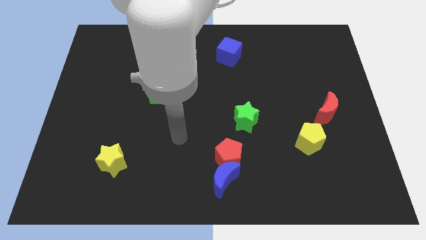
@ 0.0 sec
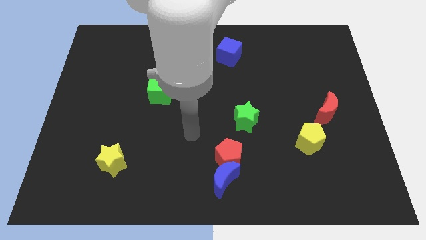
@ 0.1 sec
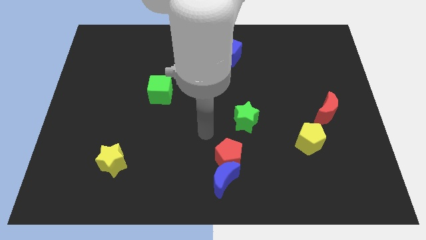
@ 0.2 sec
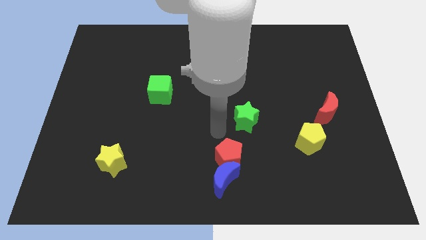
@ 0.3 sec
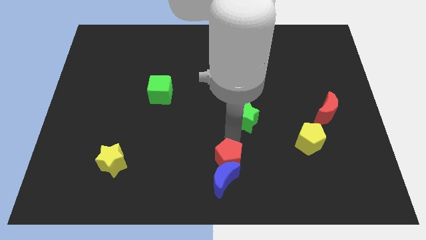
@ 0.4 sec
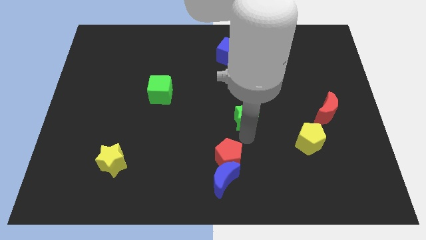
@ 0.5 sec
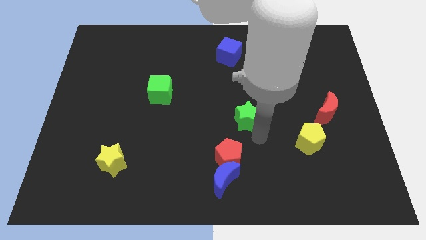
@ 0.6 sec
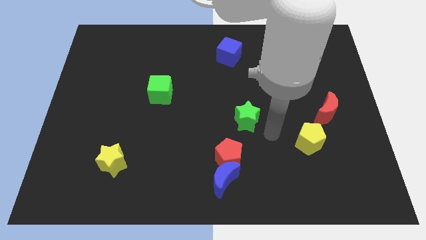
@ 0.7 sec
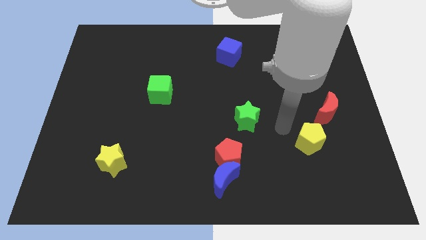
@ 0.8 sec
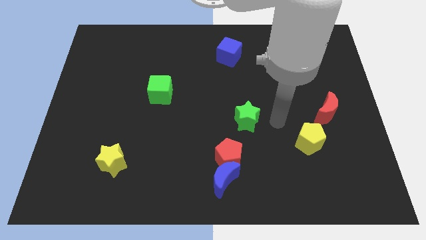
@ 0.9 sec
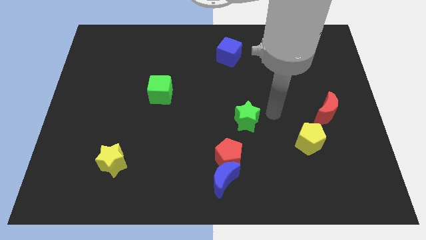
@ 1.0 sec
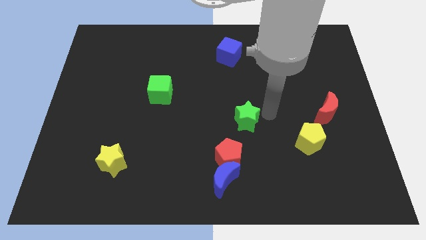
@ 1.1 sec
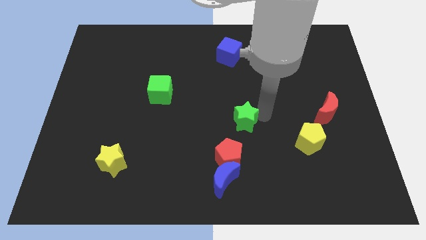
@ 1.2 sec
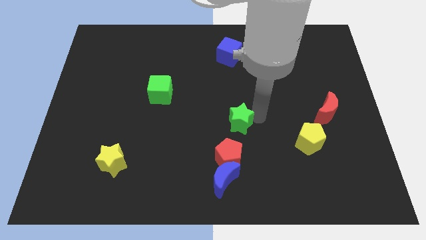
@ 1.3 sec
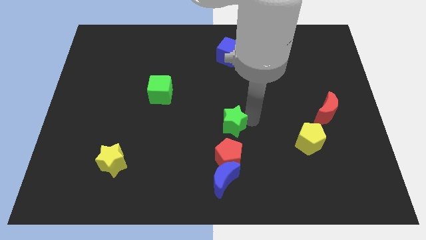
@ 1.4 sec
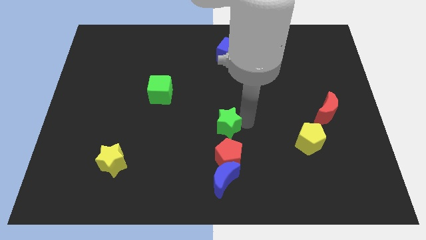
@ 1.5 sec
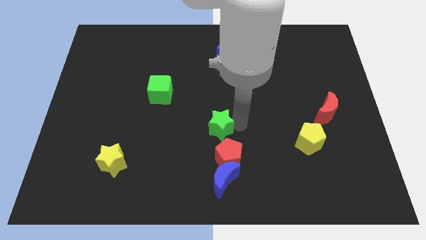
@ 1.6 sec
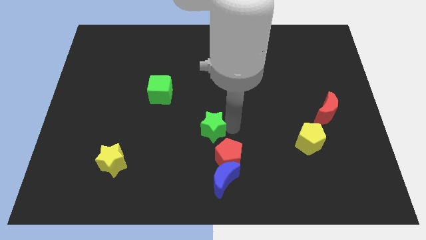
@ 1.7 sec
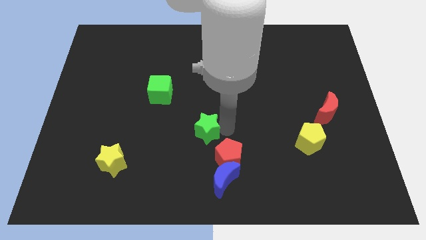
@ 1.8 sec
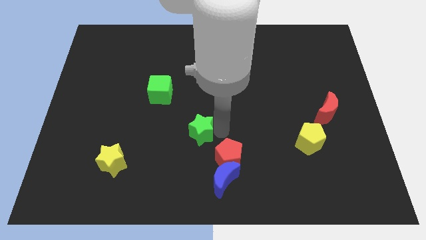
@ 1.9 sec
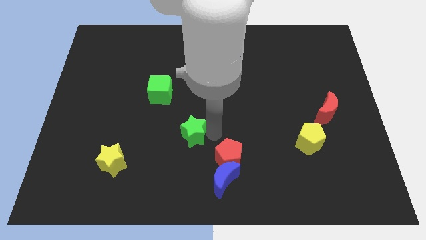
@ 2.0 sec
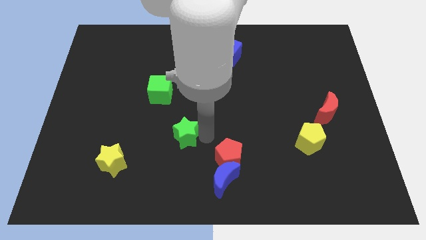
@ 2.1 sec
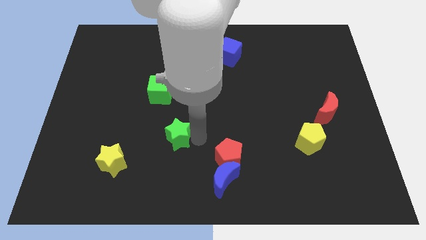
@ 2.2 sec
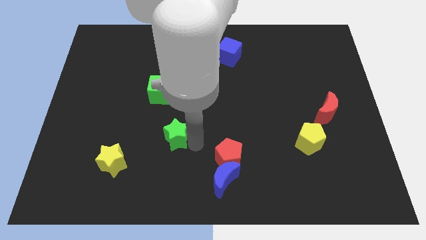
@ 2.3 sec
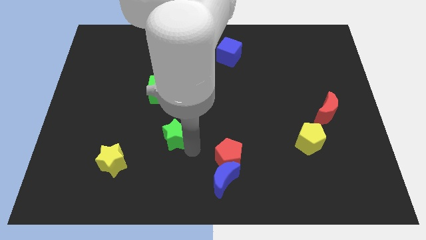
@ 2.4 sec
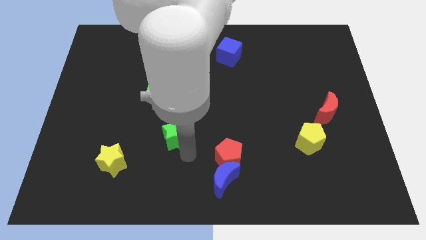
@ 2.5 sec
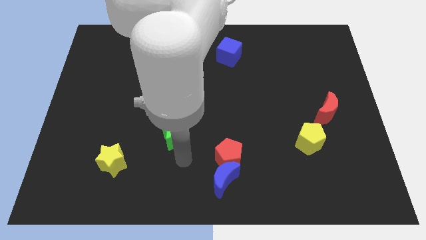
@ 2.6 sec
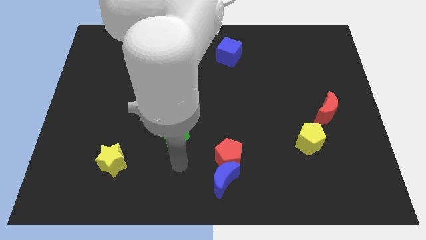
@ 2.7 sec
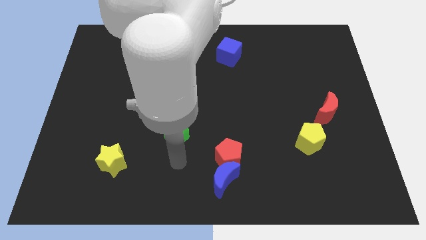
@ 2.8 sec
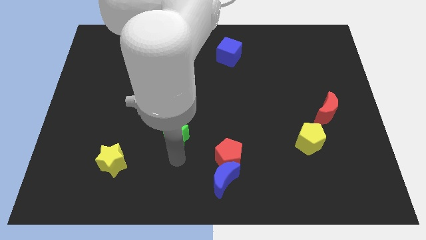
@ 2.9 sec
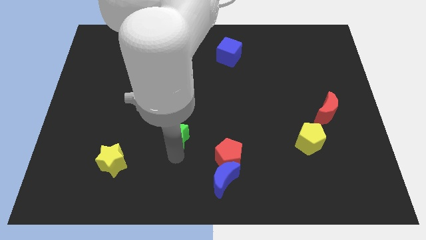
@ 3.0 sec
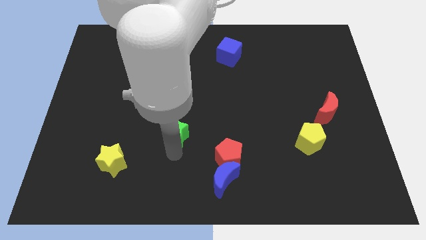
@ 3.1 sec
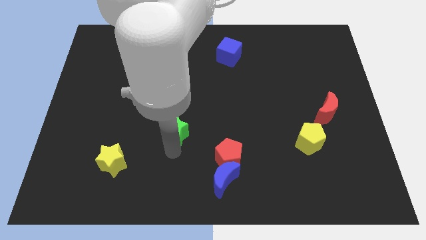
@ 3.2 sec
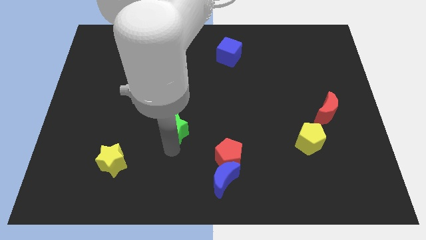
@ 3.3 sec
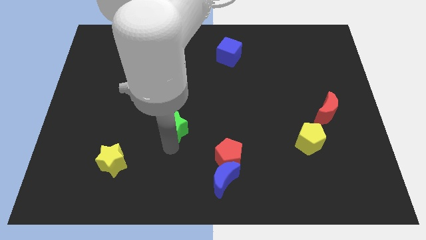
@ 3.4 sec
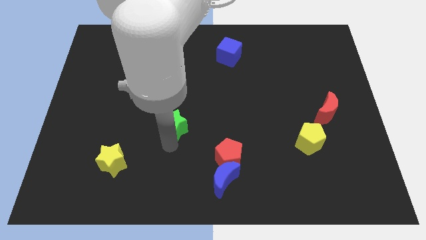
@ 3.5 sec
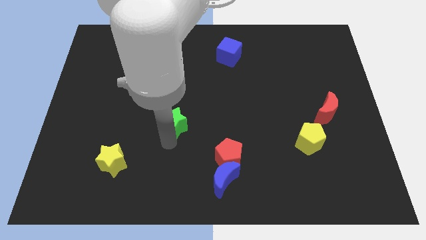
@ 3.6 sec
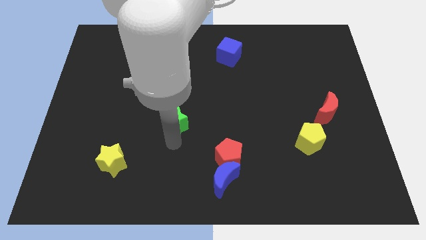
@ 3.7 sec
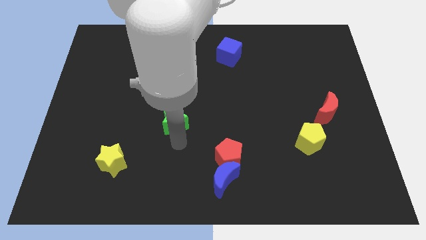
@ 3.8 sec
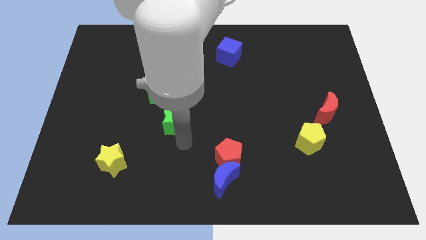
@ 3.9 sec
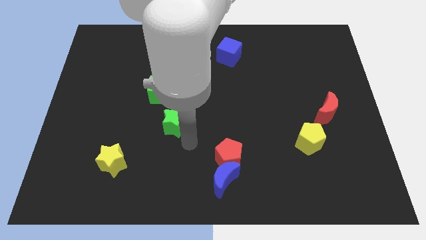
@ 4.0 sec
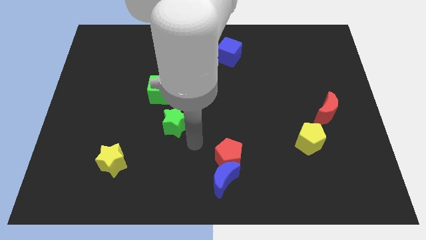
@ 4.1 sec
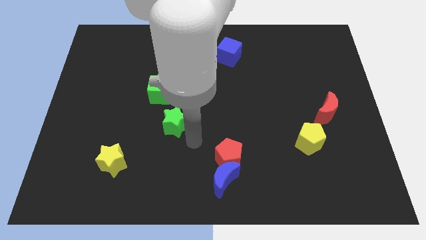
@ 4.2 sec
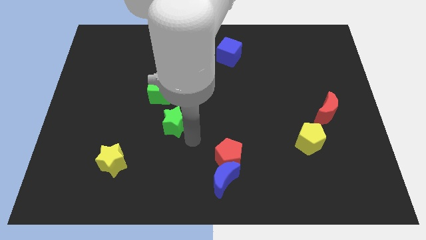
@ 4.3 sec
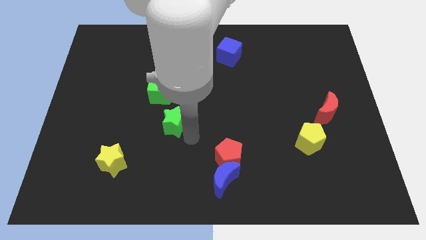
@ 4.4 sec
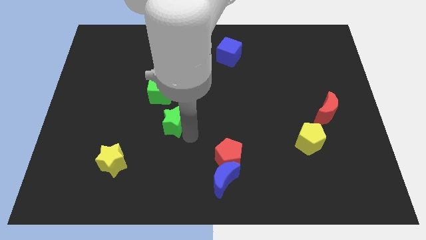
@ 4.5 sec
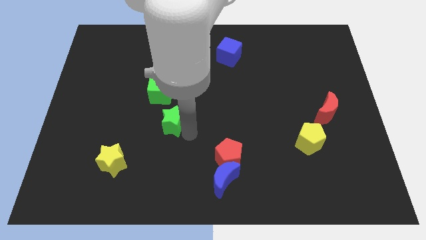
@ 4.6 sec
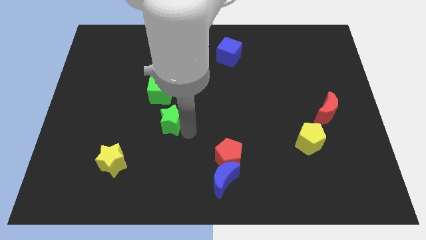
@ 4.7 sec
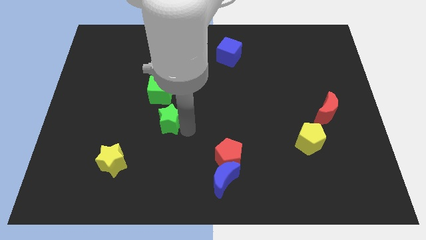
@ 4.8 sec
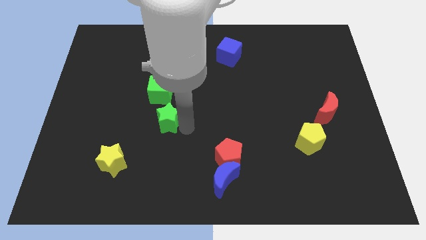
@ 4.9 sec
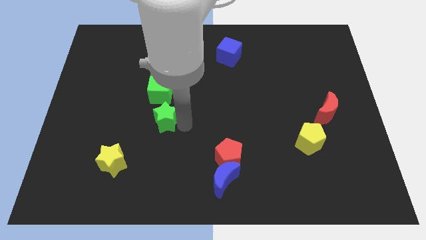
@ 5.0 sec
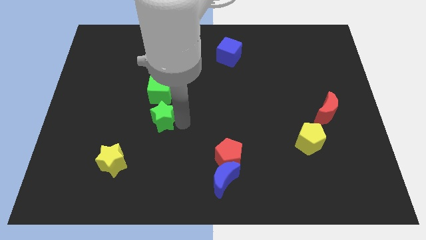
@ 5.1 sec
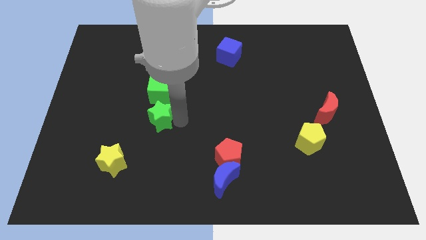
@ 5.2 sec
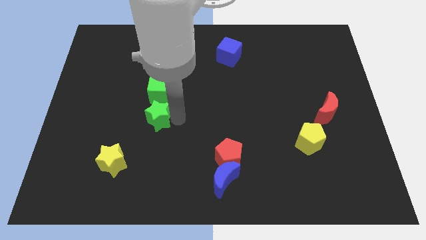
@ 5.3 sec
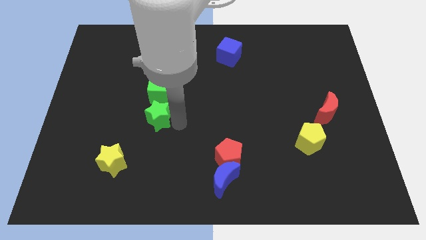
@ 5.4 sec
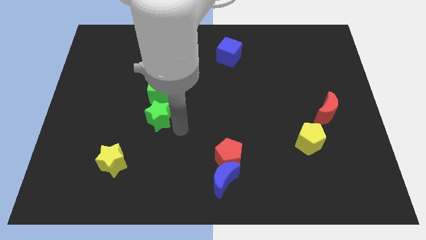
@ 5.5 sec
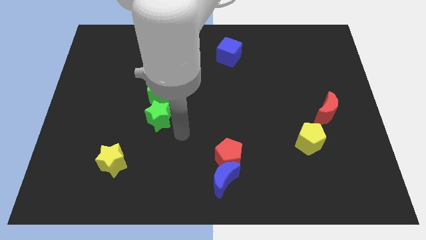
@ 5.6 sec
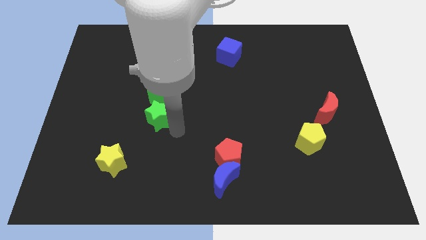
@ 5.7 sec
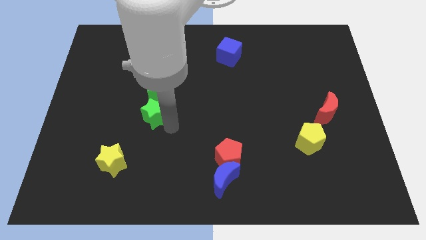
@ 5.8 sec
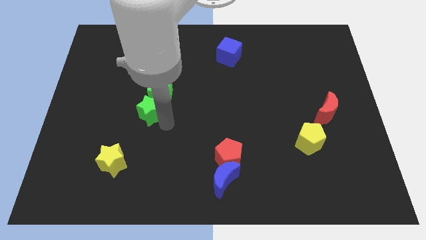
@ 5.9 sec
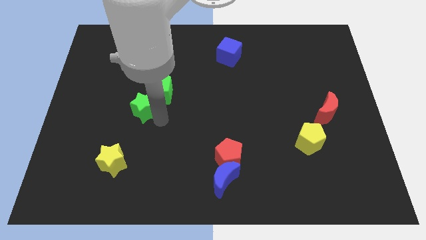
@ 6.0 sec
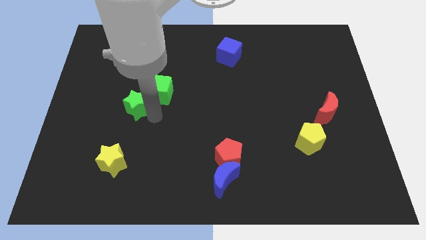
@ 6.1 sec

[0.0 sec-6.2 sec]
push the green star left of the green cube

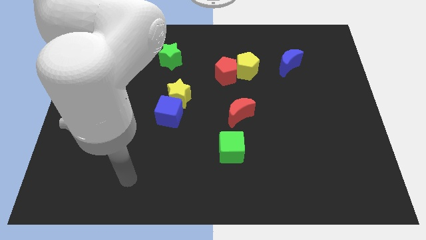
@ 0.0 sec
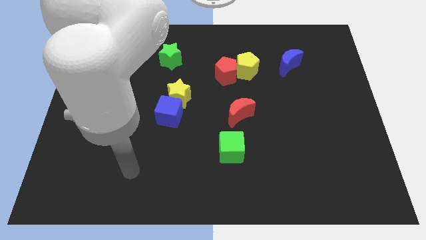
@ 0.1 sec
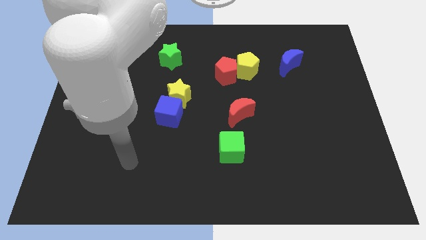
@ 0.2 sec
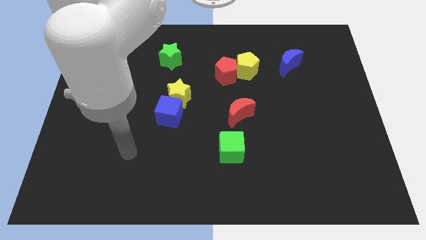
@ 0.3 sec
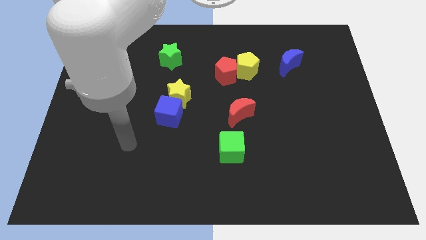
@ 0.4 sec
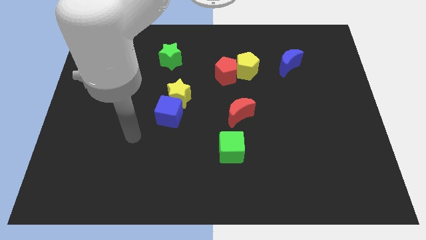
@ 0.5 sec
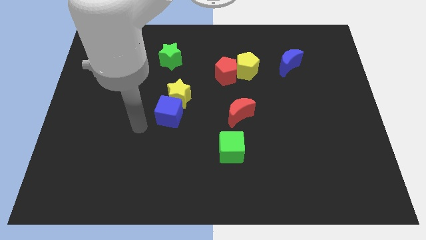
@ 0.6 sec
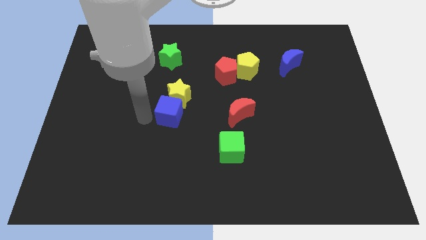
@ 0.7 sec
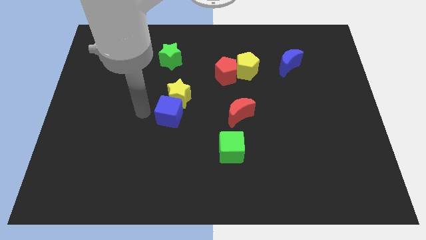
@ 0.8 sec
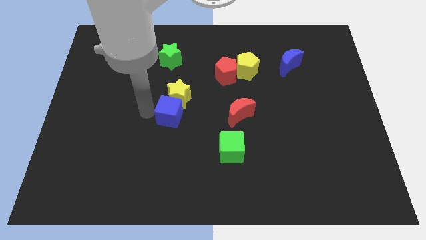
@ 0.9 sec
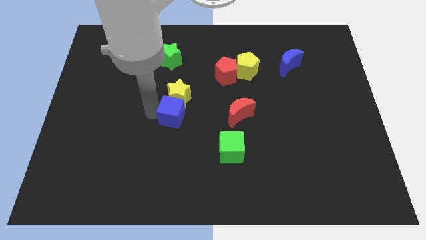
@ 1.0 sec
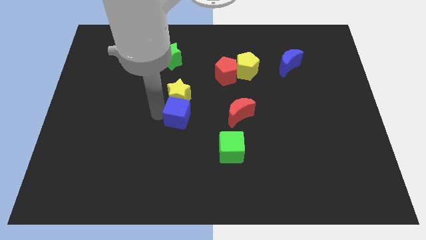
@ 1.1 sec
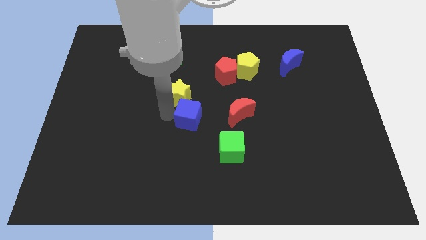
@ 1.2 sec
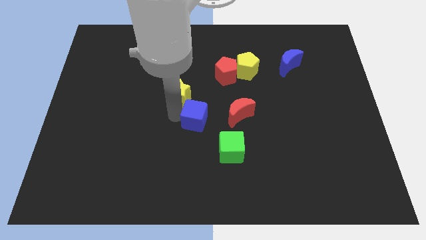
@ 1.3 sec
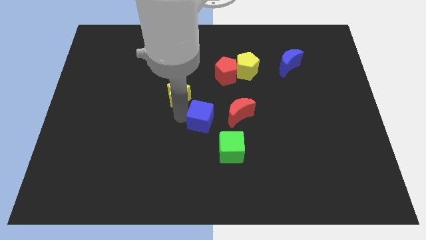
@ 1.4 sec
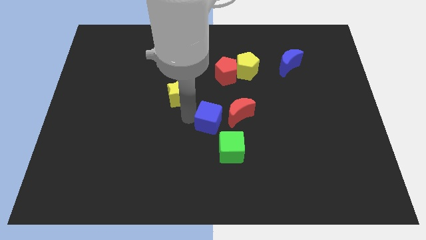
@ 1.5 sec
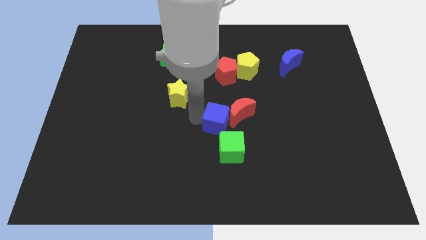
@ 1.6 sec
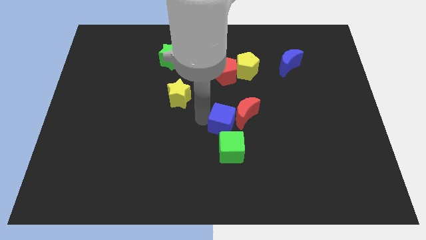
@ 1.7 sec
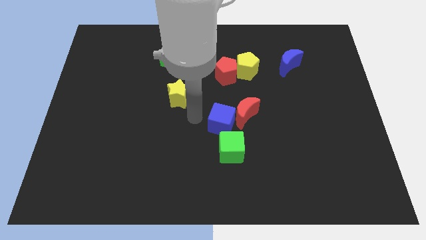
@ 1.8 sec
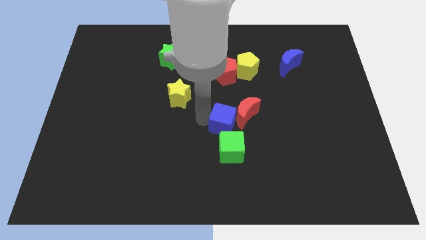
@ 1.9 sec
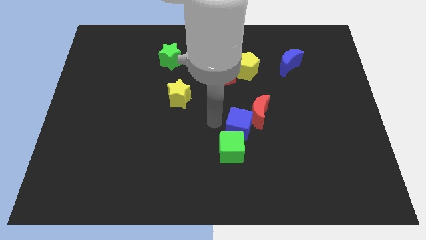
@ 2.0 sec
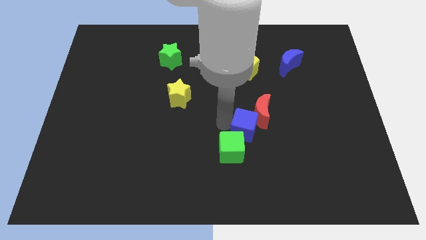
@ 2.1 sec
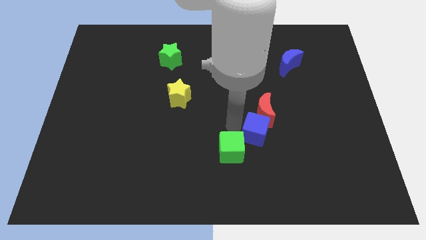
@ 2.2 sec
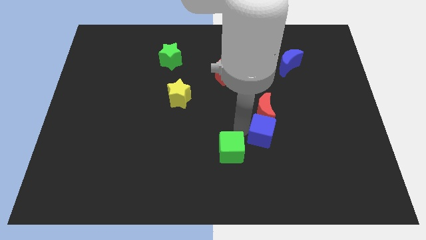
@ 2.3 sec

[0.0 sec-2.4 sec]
move the blue cube to the bottom right side of the red moon
